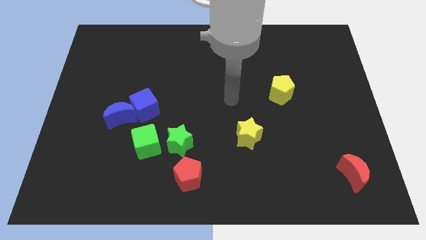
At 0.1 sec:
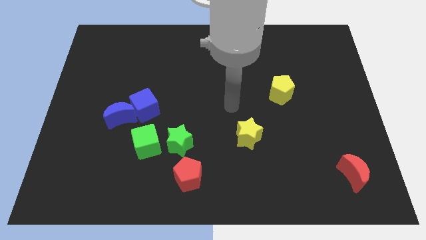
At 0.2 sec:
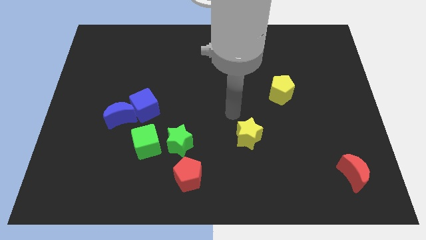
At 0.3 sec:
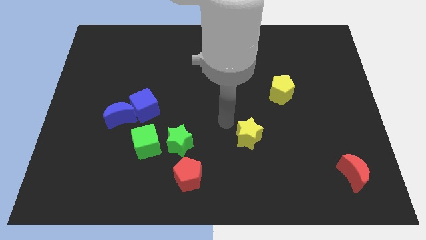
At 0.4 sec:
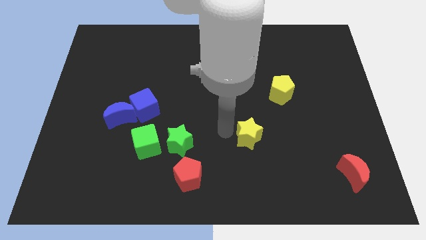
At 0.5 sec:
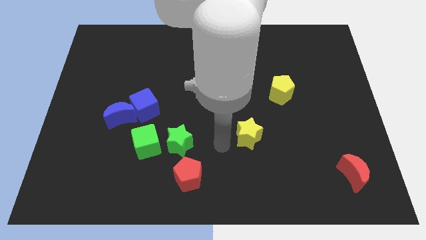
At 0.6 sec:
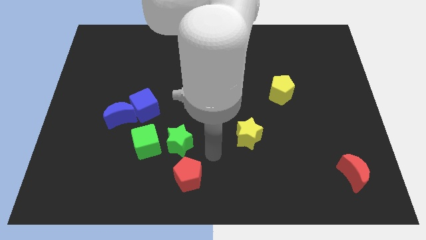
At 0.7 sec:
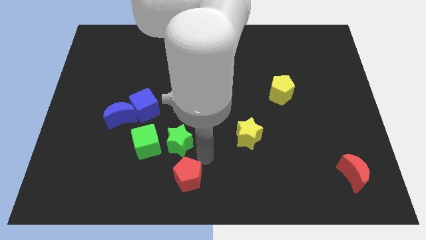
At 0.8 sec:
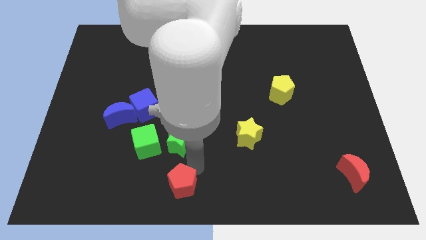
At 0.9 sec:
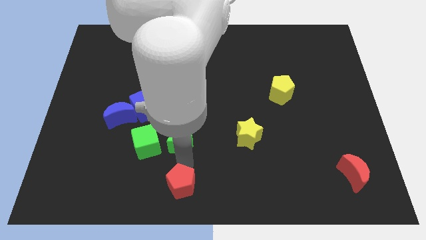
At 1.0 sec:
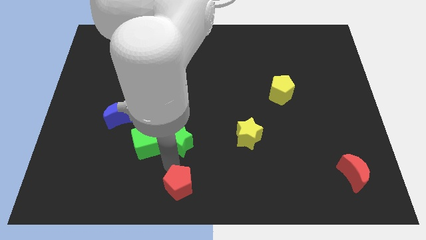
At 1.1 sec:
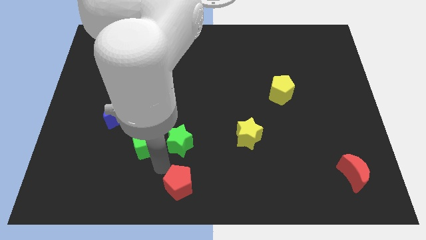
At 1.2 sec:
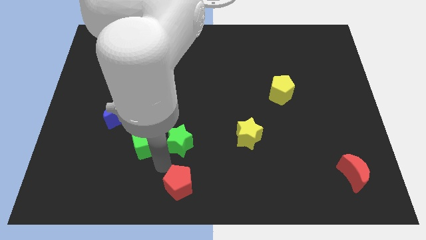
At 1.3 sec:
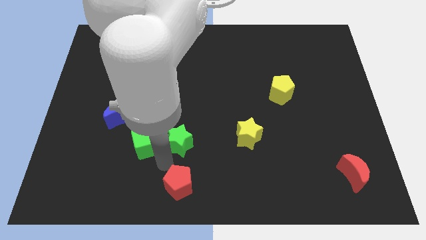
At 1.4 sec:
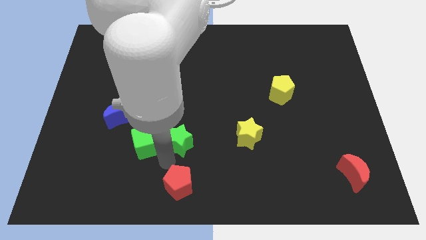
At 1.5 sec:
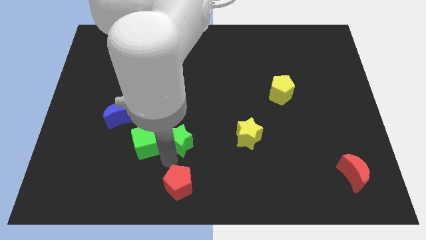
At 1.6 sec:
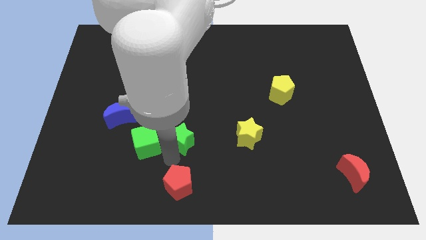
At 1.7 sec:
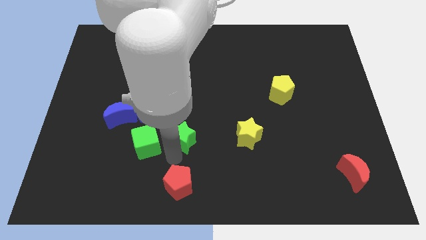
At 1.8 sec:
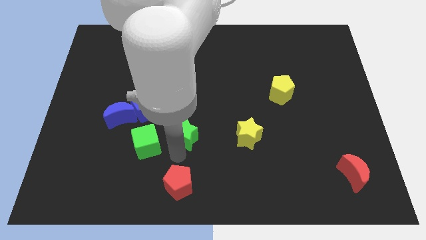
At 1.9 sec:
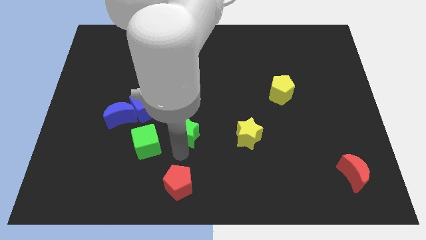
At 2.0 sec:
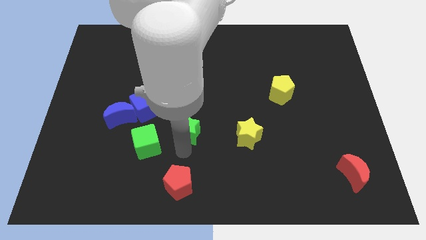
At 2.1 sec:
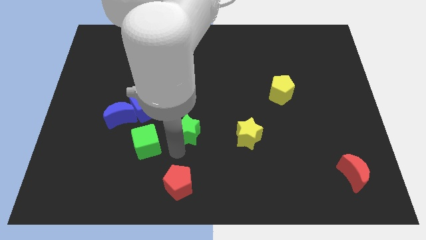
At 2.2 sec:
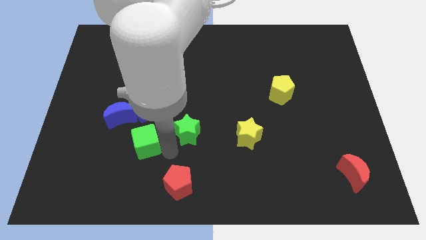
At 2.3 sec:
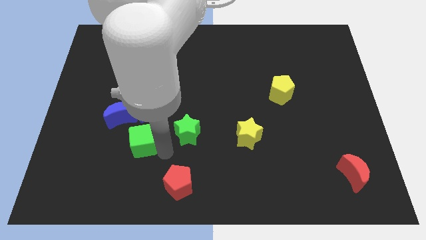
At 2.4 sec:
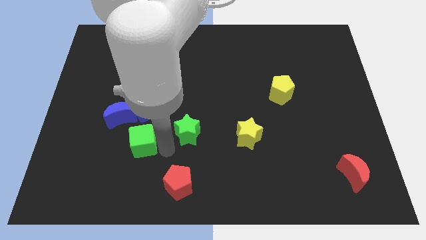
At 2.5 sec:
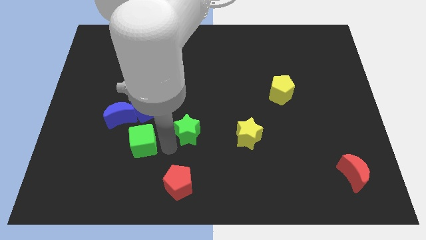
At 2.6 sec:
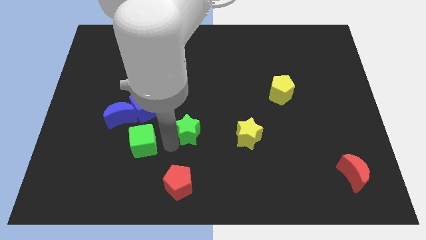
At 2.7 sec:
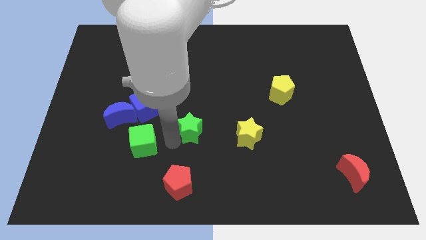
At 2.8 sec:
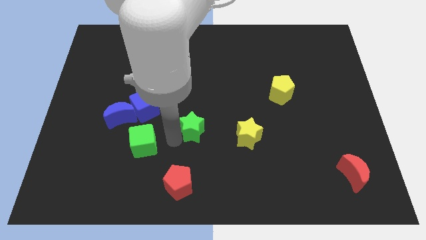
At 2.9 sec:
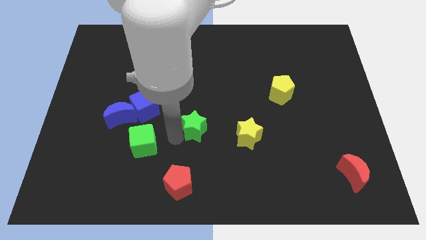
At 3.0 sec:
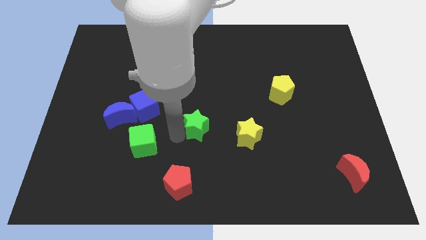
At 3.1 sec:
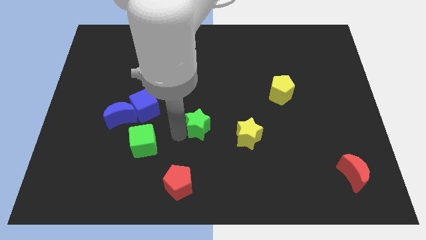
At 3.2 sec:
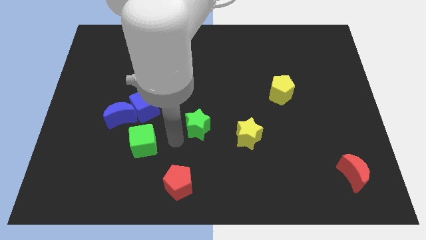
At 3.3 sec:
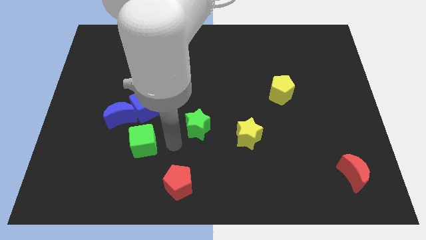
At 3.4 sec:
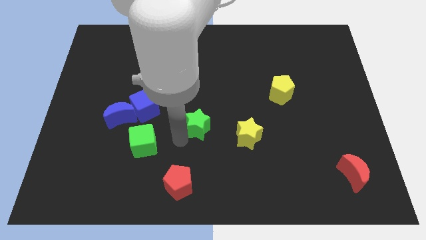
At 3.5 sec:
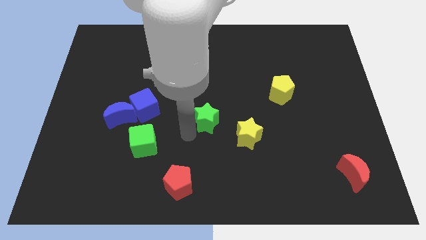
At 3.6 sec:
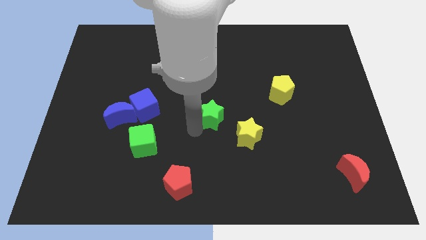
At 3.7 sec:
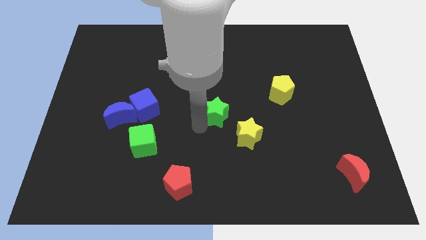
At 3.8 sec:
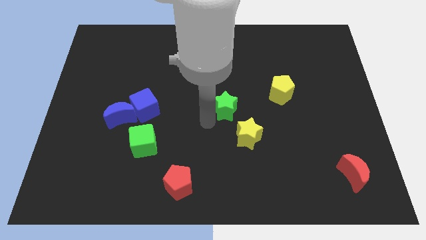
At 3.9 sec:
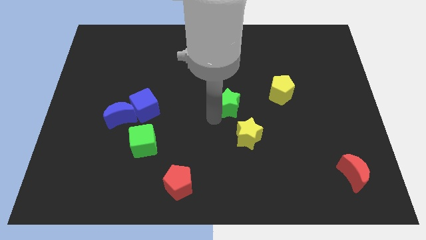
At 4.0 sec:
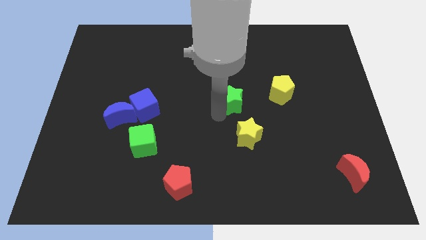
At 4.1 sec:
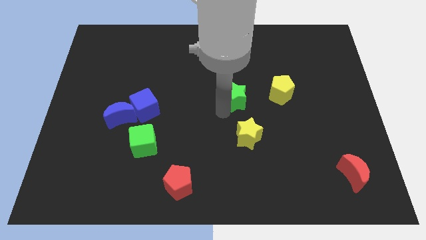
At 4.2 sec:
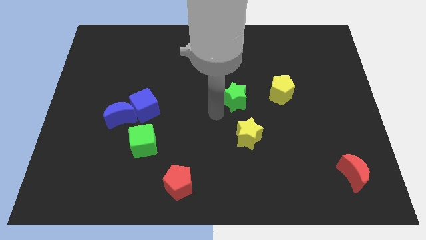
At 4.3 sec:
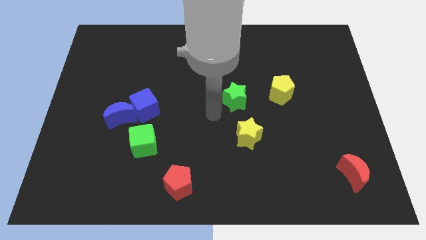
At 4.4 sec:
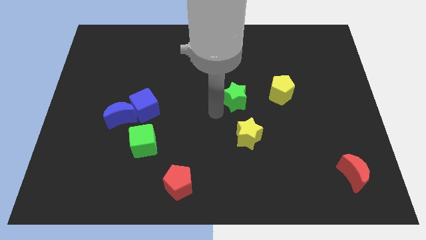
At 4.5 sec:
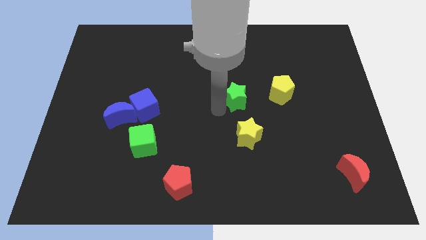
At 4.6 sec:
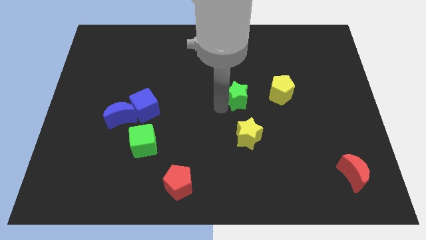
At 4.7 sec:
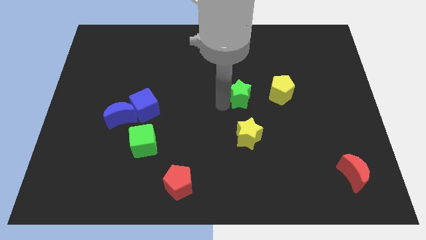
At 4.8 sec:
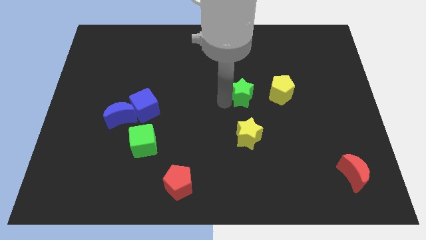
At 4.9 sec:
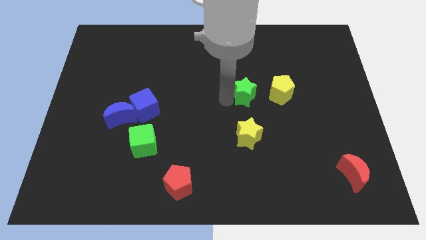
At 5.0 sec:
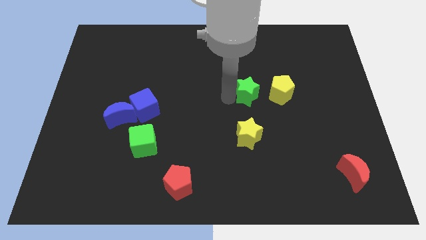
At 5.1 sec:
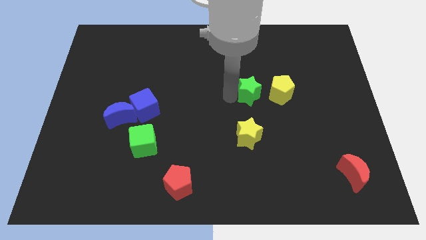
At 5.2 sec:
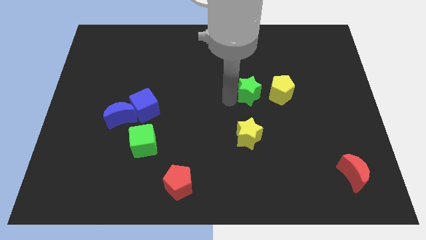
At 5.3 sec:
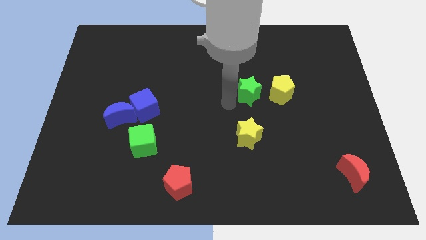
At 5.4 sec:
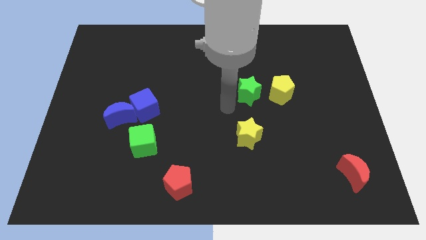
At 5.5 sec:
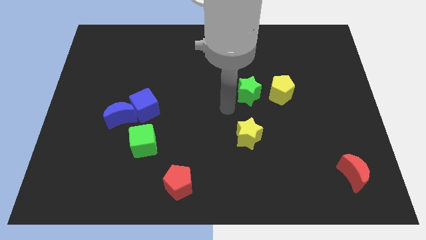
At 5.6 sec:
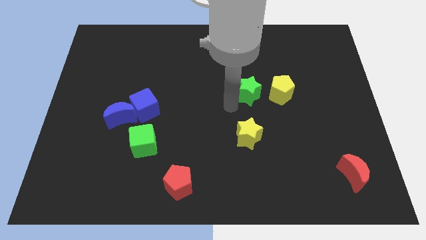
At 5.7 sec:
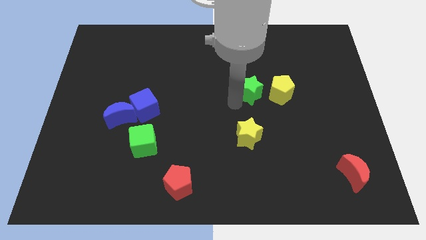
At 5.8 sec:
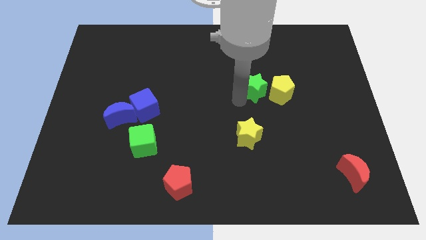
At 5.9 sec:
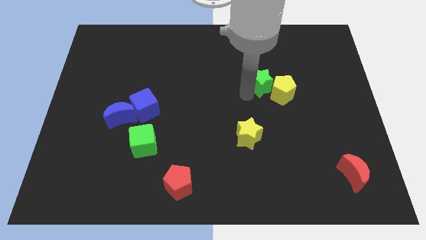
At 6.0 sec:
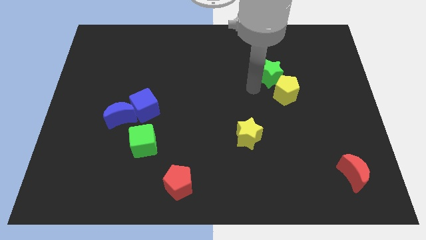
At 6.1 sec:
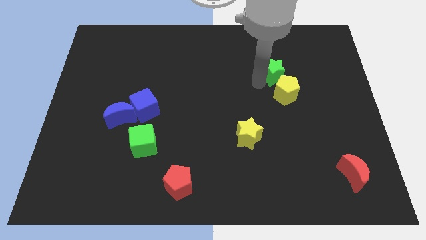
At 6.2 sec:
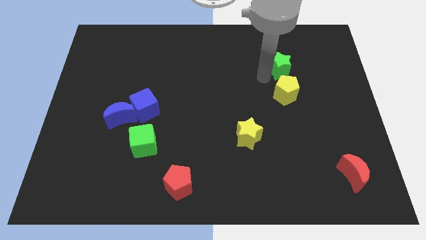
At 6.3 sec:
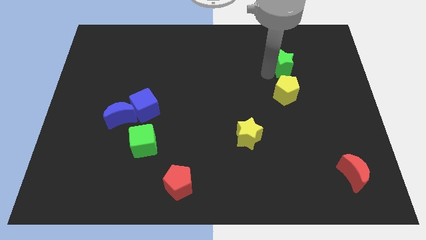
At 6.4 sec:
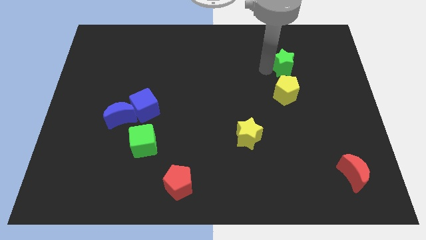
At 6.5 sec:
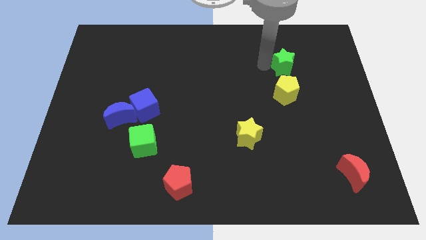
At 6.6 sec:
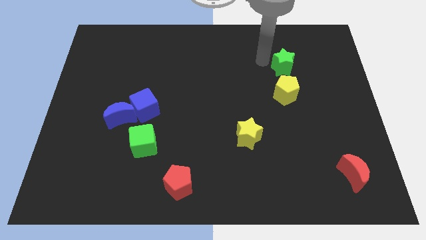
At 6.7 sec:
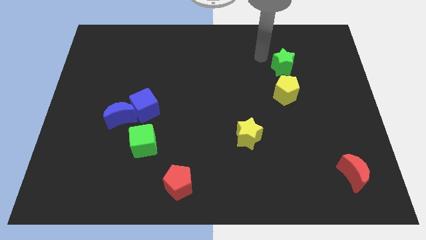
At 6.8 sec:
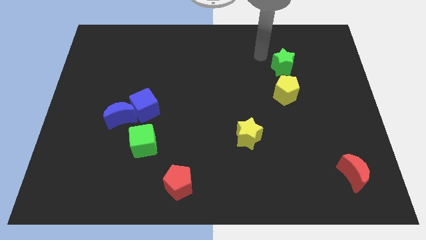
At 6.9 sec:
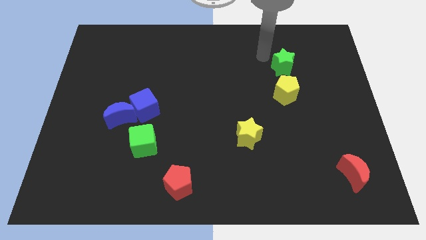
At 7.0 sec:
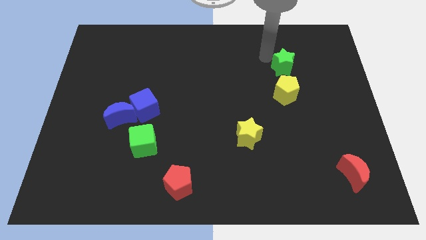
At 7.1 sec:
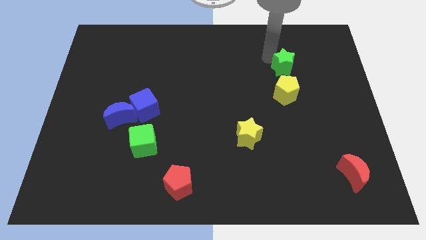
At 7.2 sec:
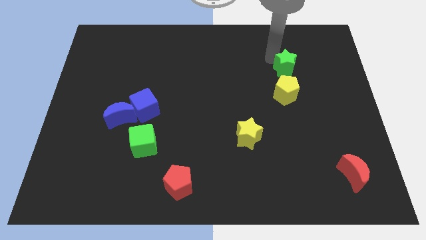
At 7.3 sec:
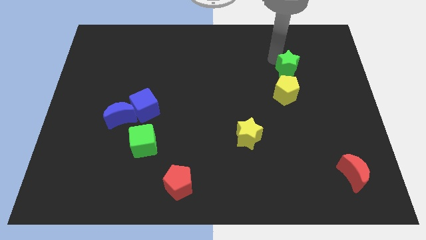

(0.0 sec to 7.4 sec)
put the green star diagonally up and to the right of the yellow pentagon
